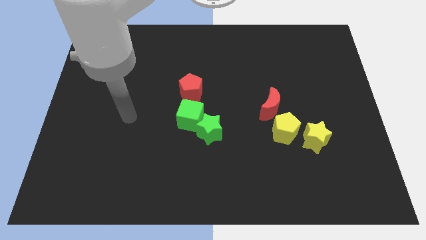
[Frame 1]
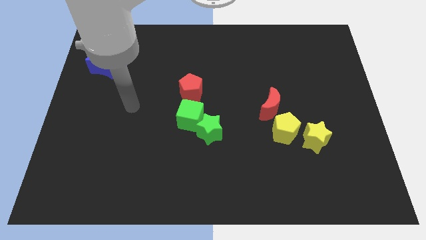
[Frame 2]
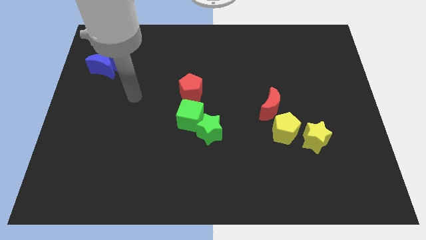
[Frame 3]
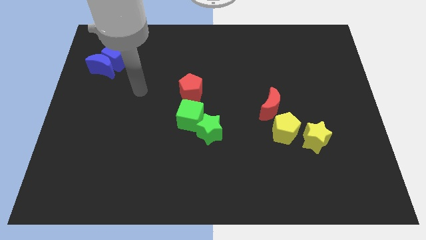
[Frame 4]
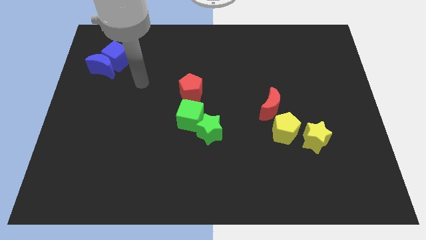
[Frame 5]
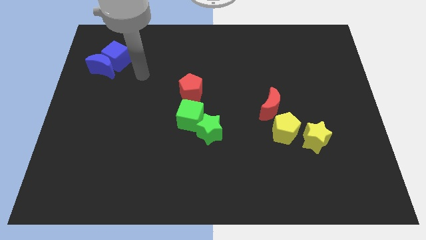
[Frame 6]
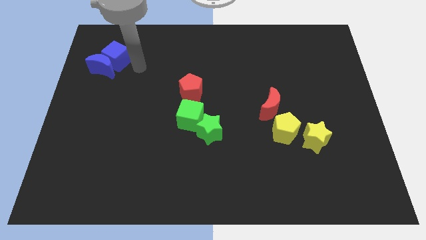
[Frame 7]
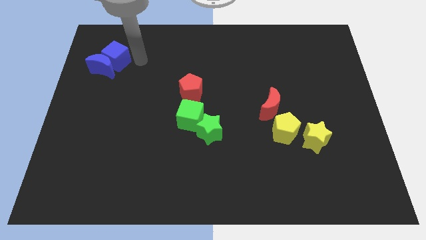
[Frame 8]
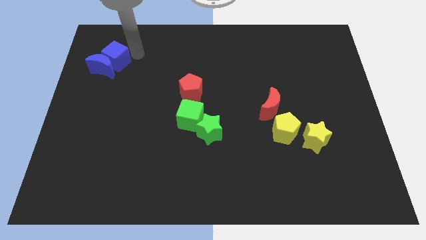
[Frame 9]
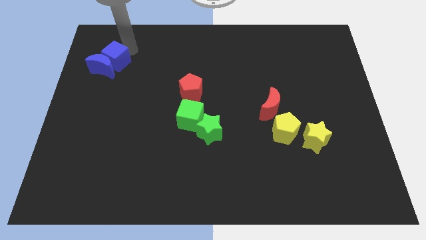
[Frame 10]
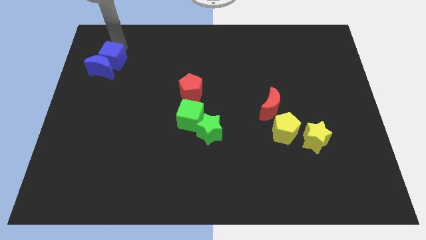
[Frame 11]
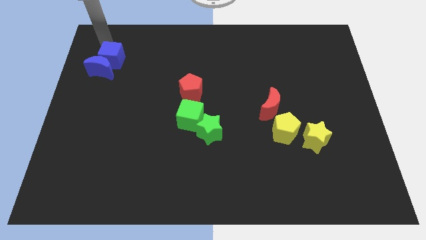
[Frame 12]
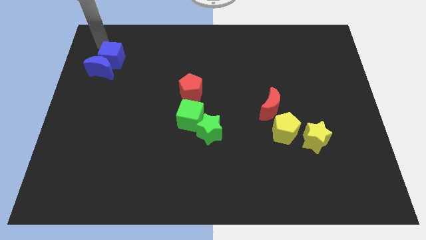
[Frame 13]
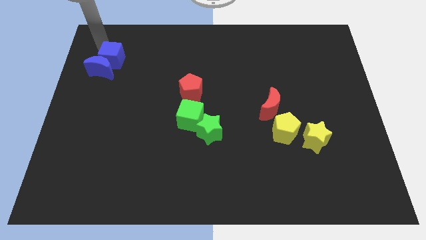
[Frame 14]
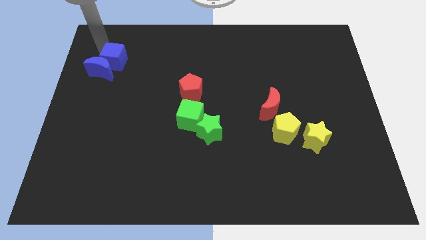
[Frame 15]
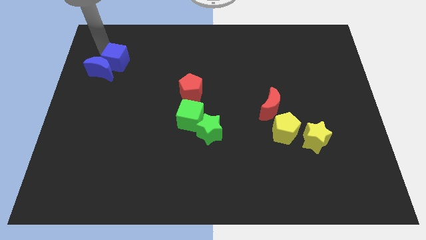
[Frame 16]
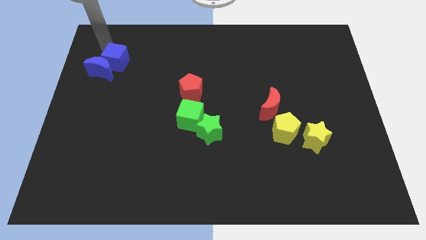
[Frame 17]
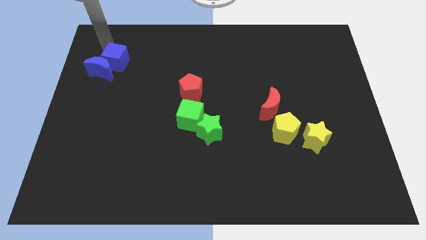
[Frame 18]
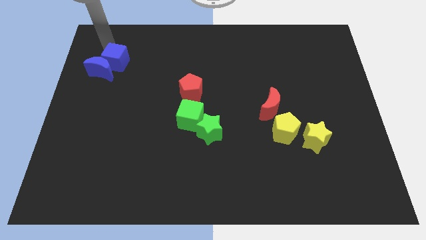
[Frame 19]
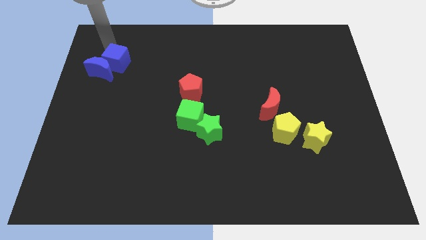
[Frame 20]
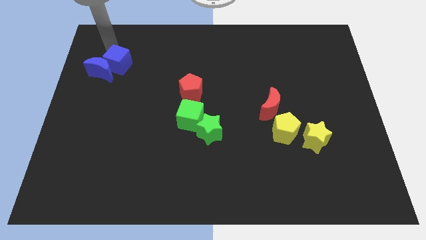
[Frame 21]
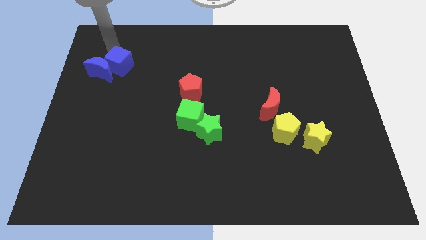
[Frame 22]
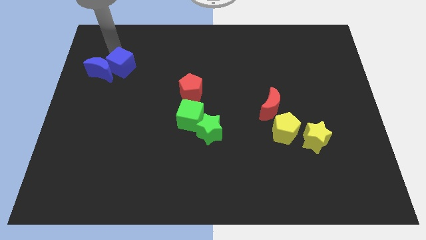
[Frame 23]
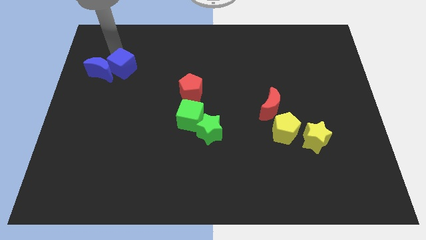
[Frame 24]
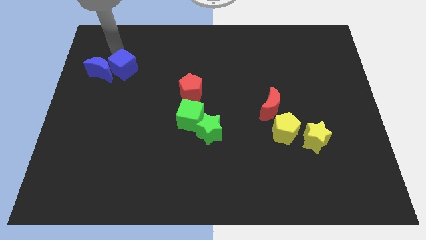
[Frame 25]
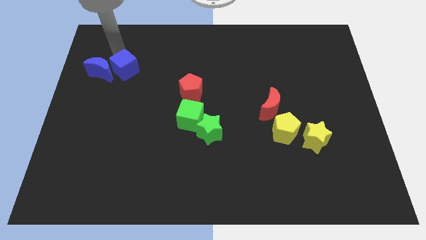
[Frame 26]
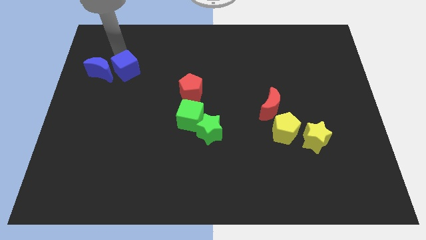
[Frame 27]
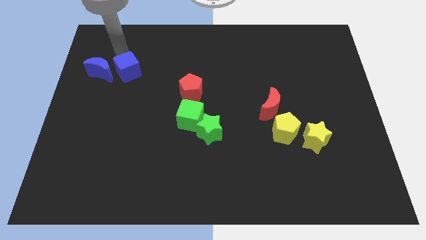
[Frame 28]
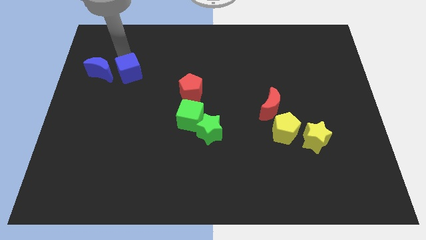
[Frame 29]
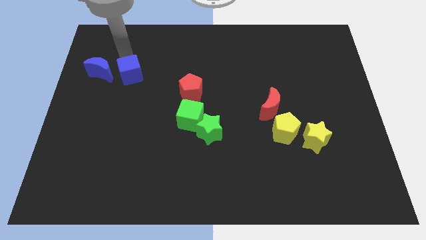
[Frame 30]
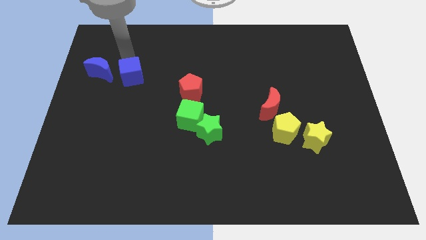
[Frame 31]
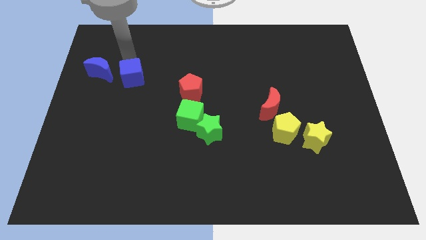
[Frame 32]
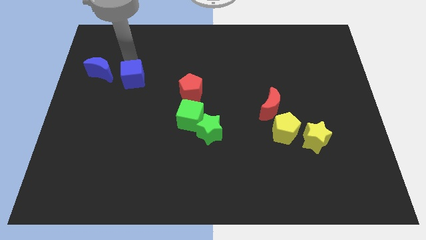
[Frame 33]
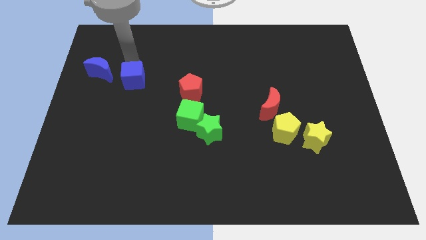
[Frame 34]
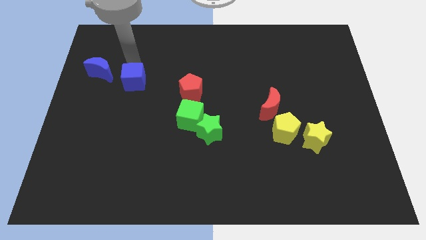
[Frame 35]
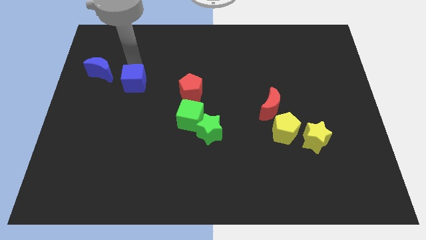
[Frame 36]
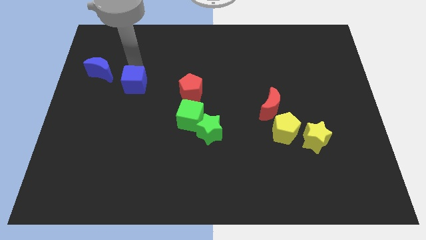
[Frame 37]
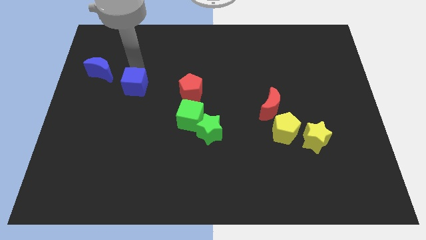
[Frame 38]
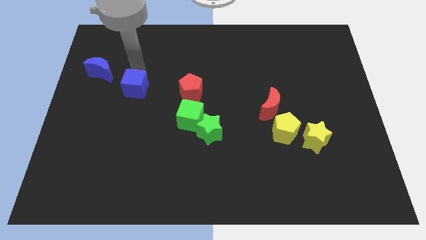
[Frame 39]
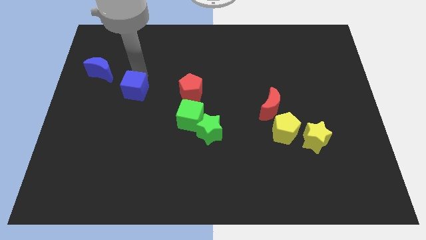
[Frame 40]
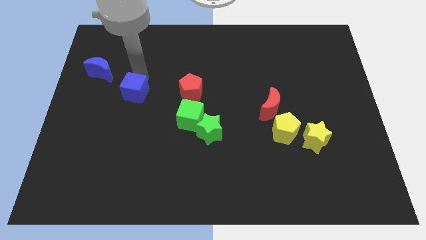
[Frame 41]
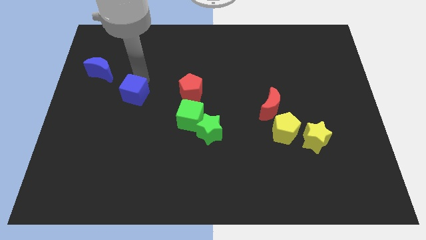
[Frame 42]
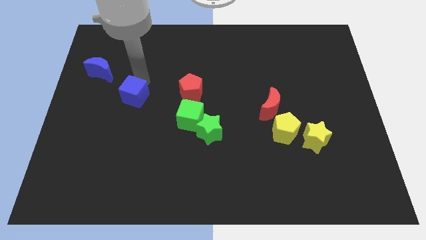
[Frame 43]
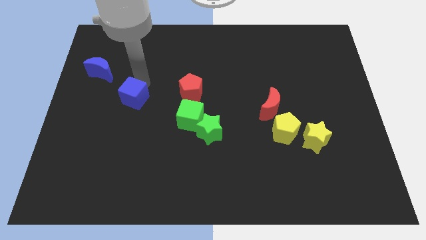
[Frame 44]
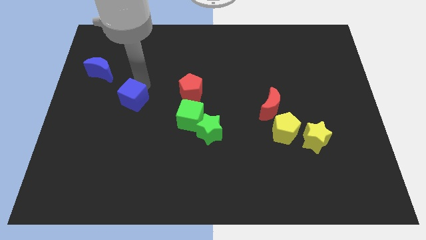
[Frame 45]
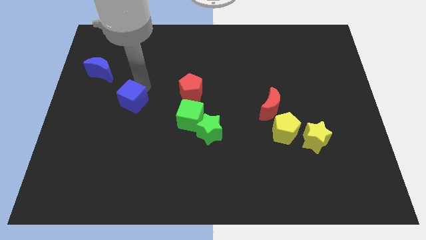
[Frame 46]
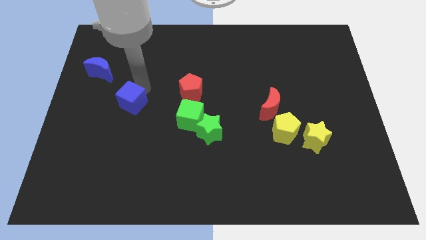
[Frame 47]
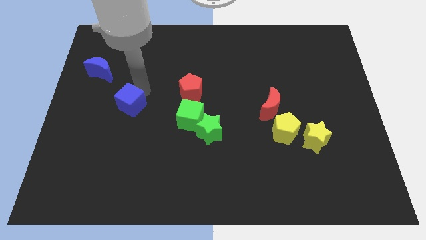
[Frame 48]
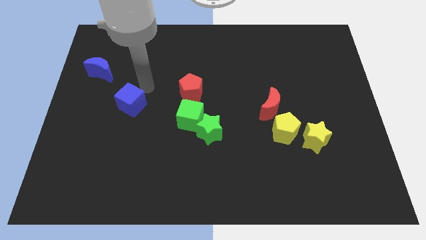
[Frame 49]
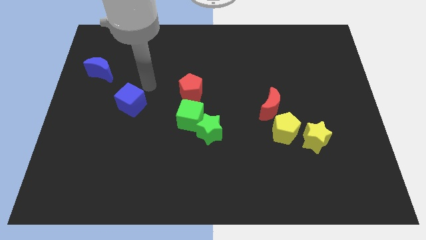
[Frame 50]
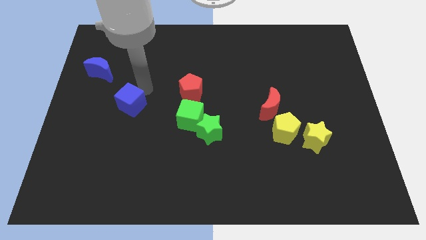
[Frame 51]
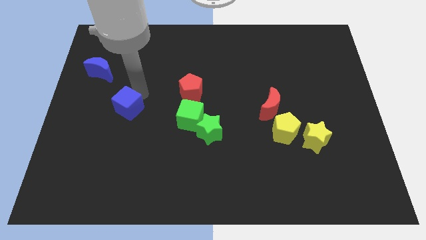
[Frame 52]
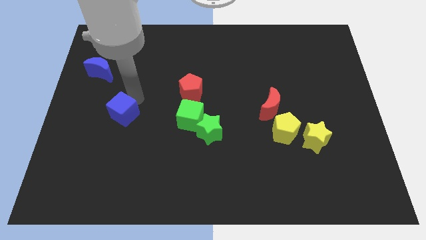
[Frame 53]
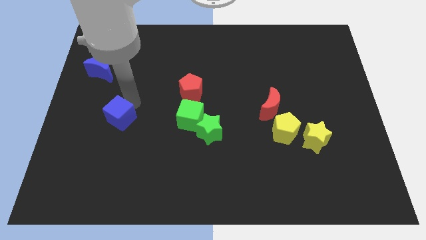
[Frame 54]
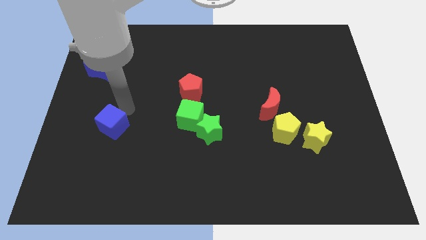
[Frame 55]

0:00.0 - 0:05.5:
slide the blue cube down

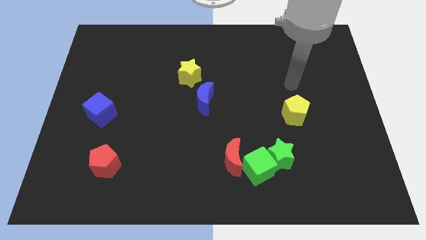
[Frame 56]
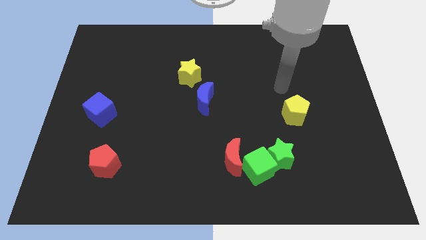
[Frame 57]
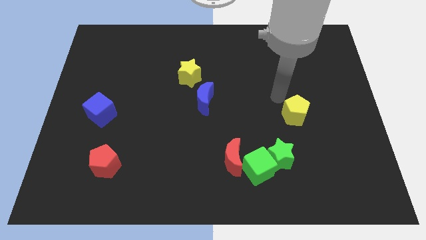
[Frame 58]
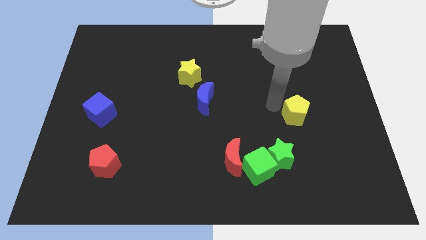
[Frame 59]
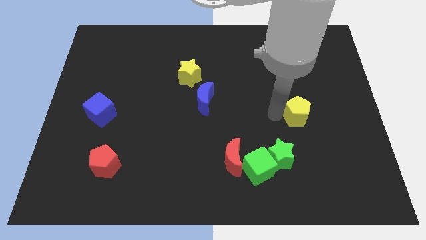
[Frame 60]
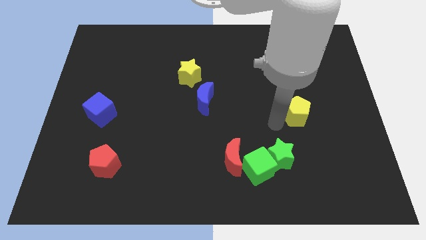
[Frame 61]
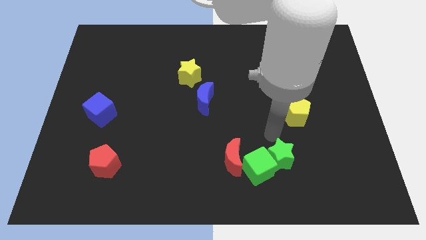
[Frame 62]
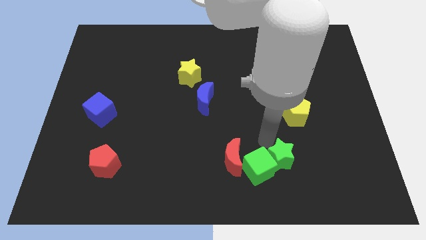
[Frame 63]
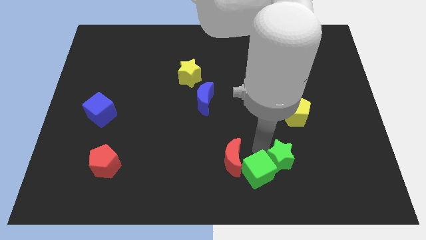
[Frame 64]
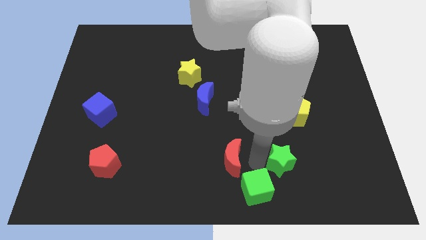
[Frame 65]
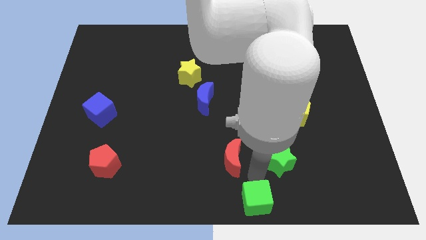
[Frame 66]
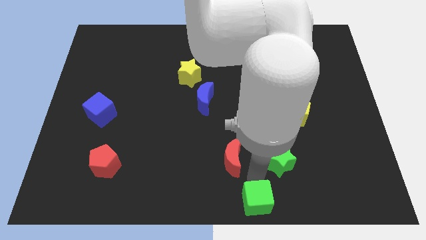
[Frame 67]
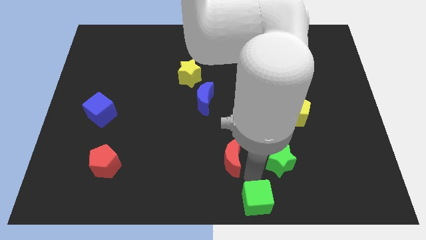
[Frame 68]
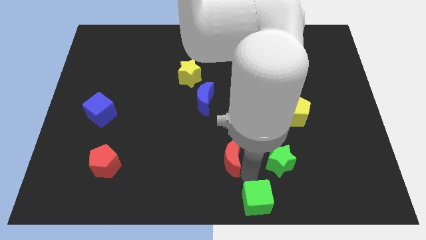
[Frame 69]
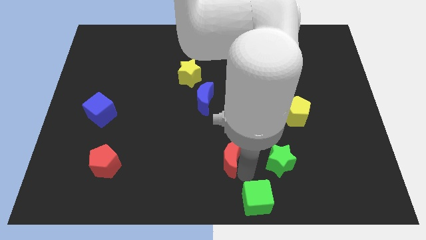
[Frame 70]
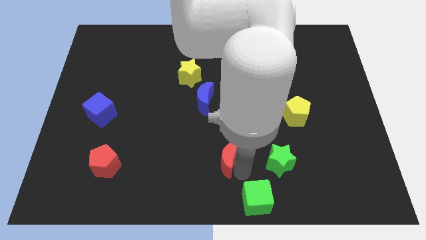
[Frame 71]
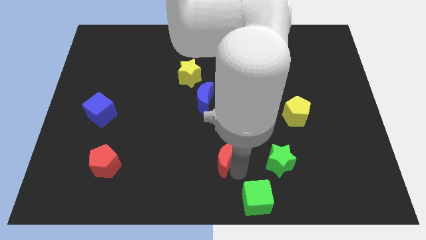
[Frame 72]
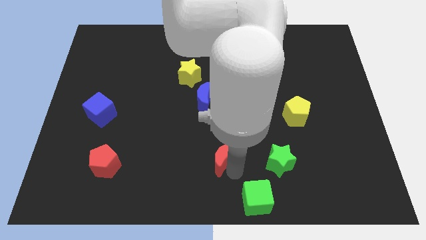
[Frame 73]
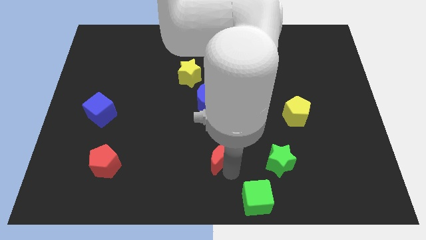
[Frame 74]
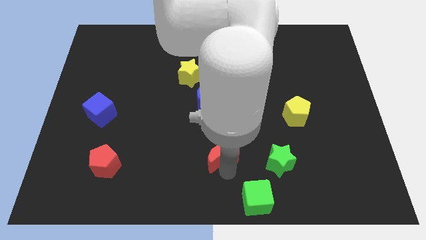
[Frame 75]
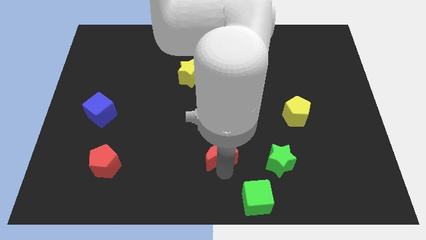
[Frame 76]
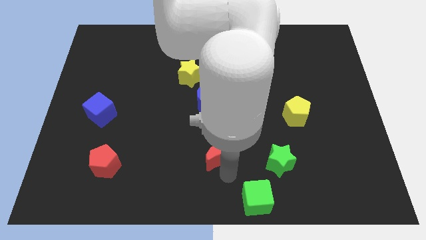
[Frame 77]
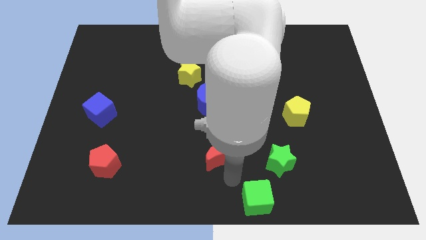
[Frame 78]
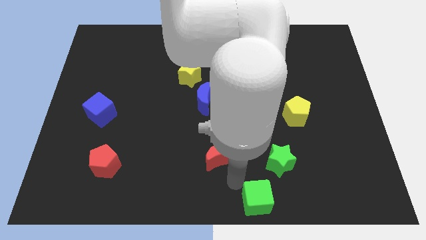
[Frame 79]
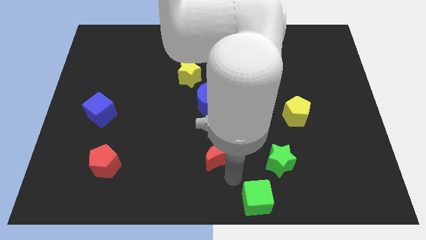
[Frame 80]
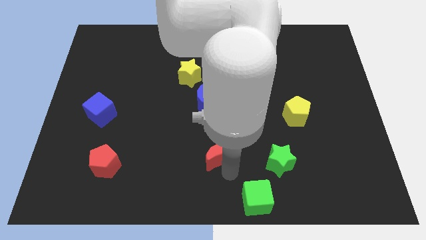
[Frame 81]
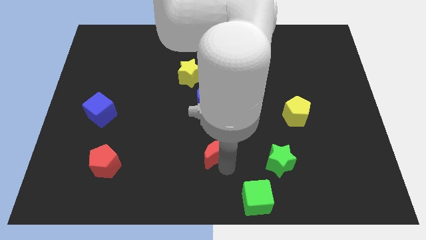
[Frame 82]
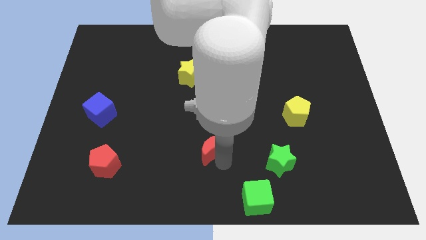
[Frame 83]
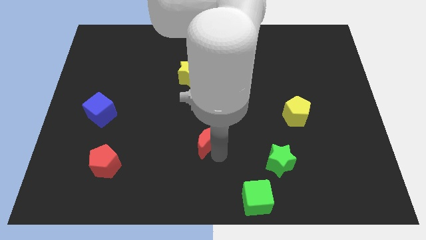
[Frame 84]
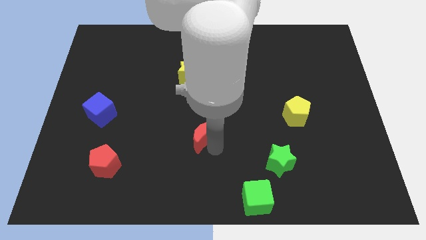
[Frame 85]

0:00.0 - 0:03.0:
move the red moon up and then to the left a little
